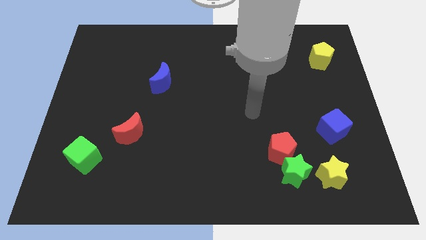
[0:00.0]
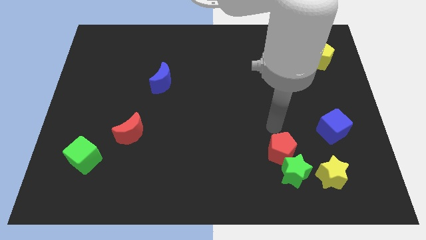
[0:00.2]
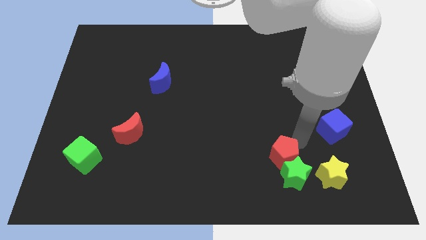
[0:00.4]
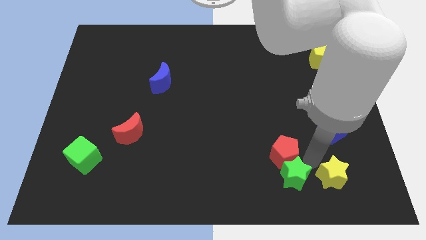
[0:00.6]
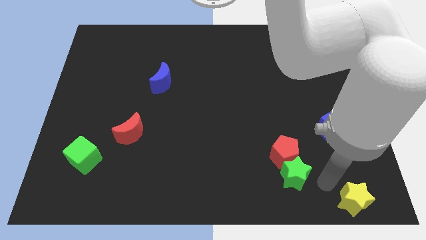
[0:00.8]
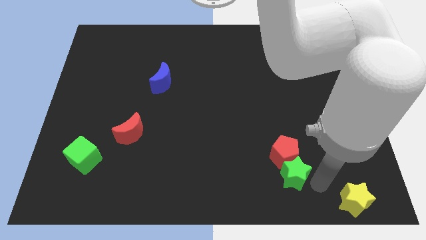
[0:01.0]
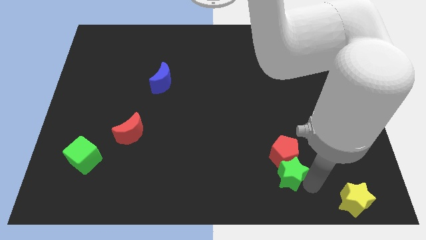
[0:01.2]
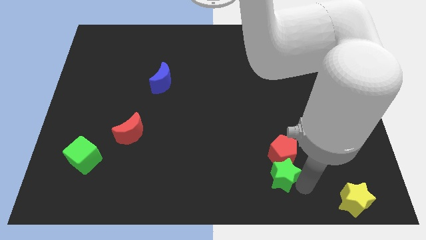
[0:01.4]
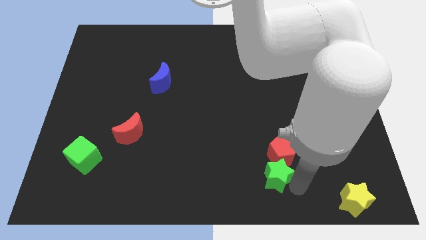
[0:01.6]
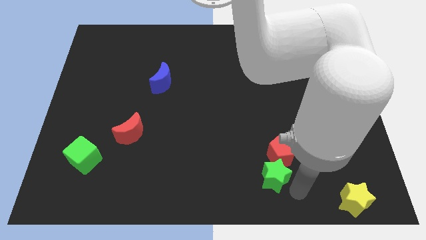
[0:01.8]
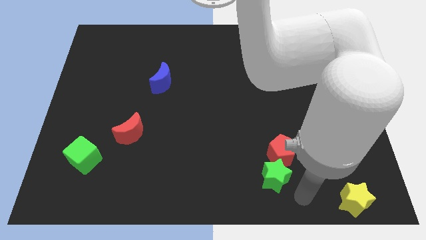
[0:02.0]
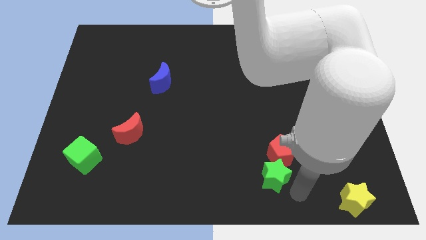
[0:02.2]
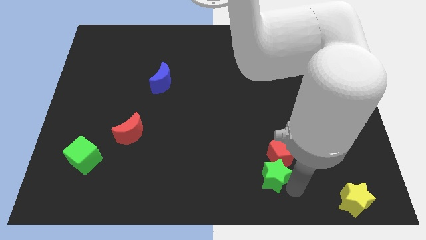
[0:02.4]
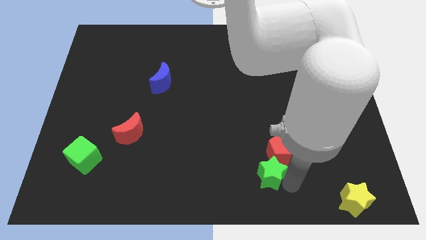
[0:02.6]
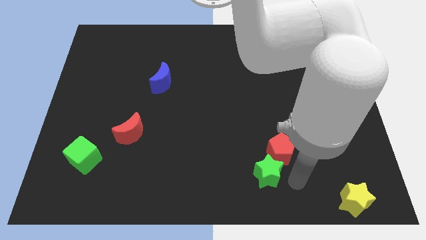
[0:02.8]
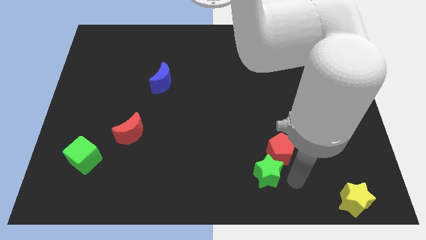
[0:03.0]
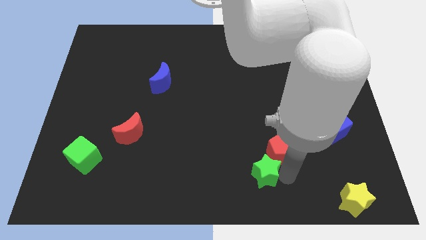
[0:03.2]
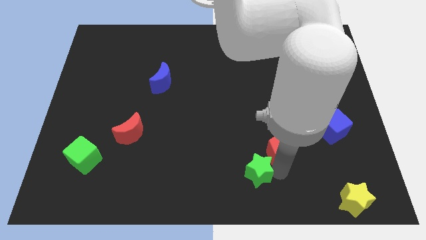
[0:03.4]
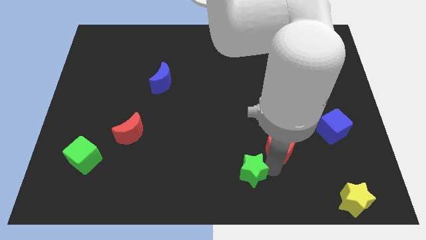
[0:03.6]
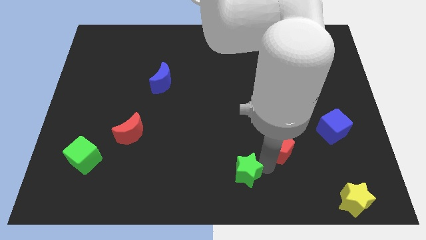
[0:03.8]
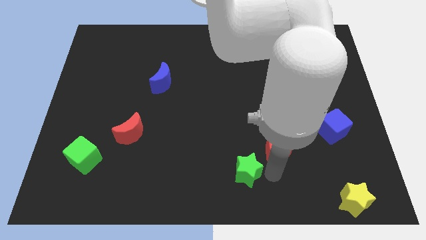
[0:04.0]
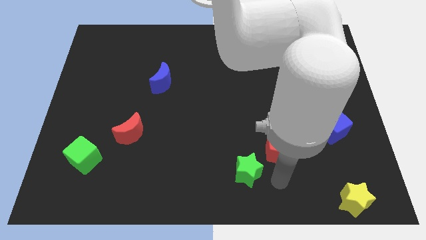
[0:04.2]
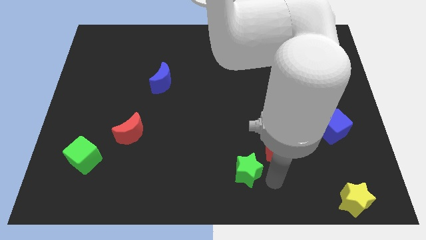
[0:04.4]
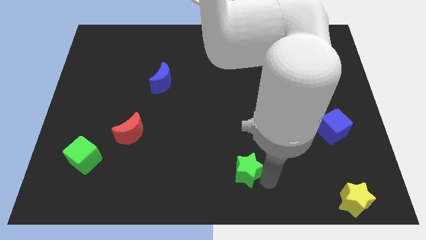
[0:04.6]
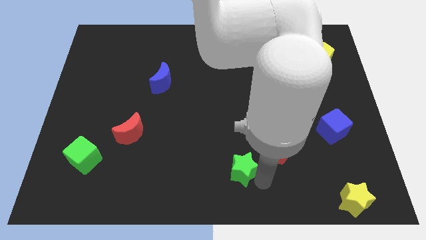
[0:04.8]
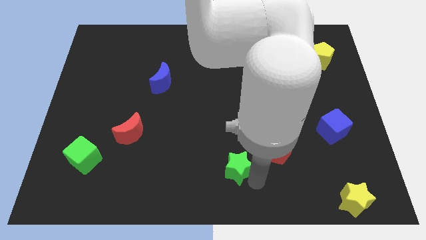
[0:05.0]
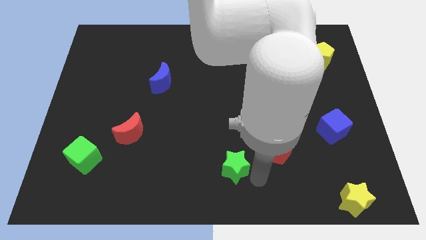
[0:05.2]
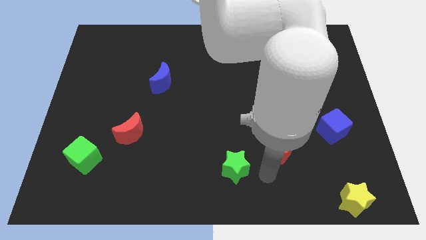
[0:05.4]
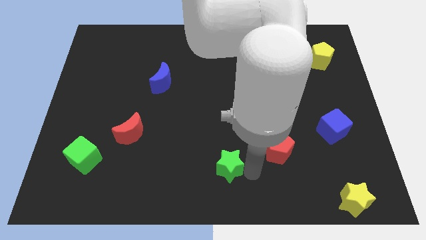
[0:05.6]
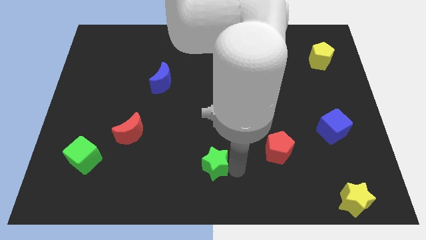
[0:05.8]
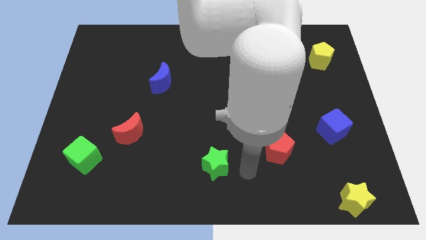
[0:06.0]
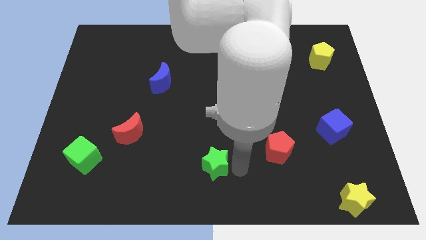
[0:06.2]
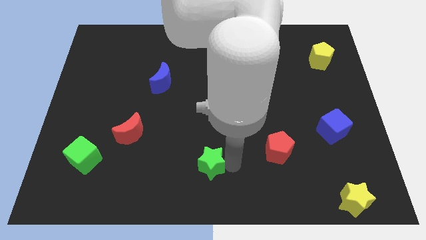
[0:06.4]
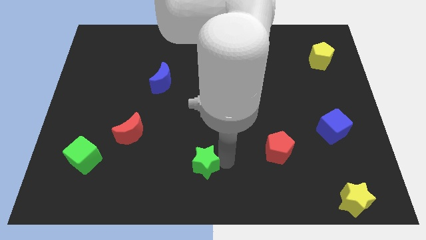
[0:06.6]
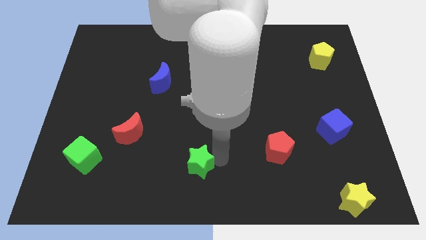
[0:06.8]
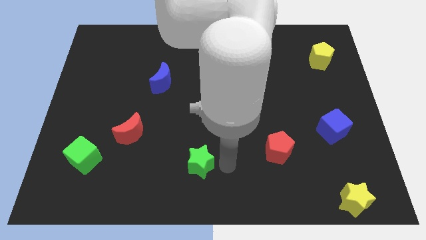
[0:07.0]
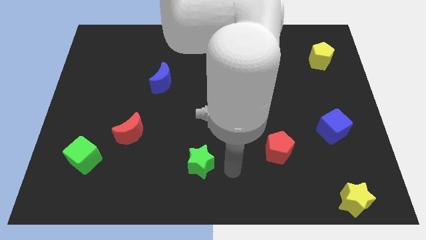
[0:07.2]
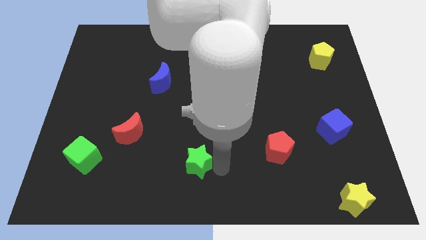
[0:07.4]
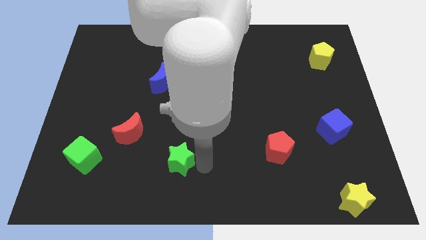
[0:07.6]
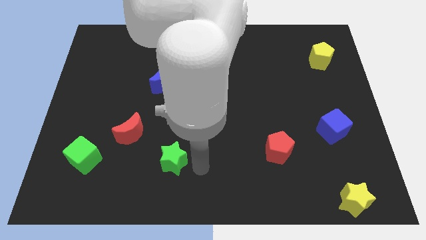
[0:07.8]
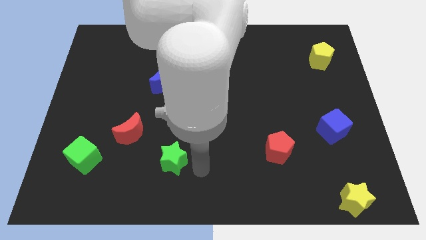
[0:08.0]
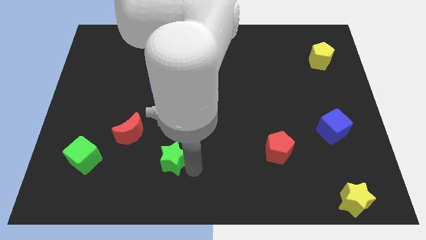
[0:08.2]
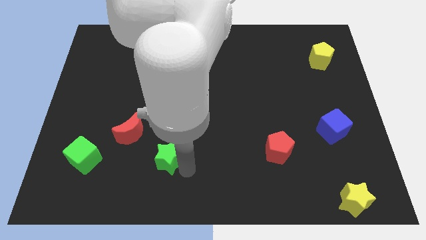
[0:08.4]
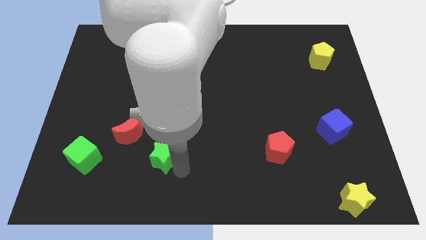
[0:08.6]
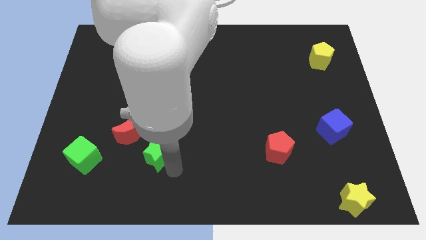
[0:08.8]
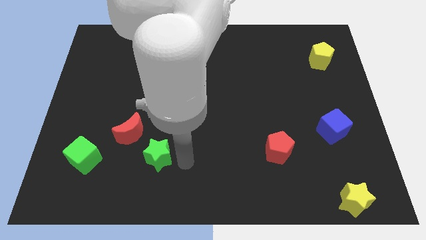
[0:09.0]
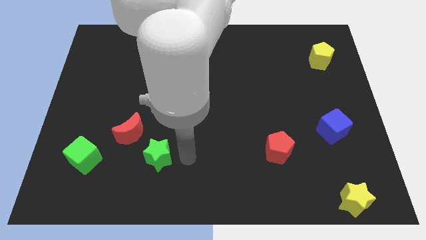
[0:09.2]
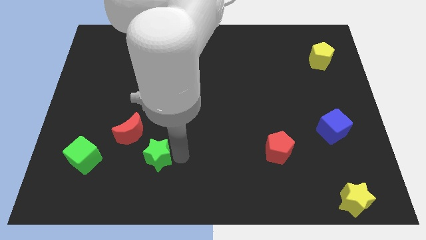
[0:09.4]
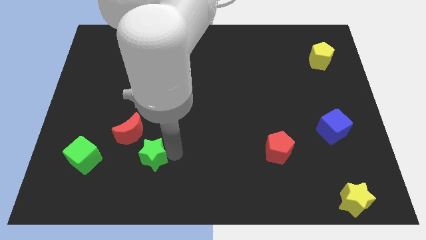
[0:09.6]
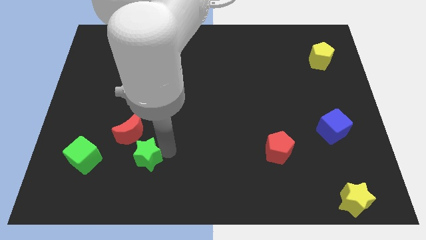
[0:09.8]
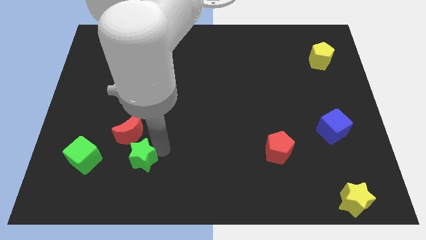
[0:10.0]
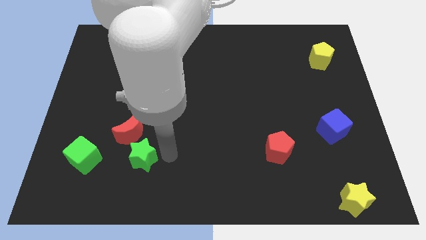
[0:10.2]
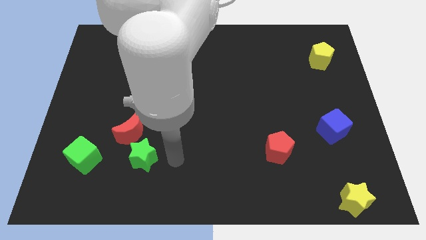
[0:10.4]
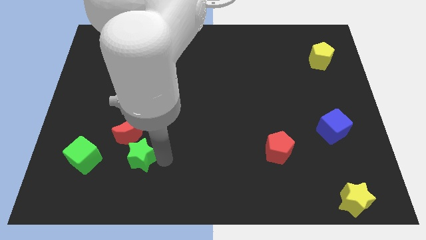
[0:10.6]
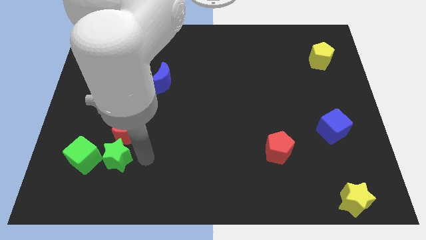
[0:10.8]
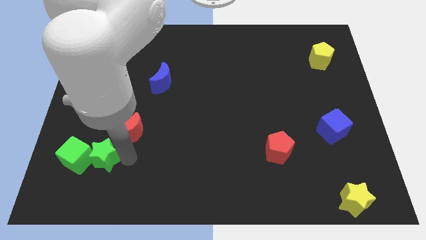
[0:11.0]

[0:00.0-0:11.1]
put the green star towards the green cube

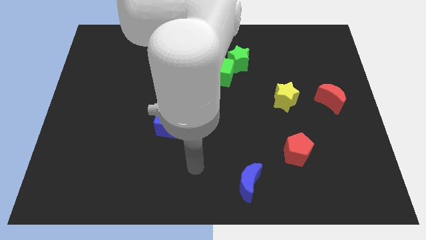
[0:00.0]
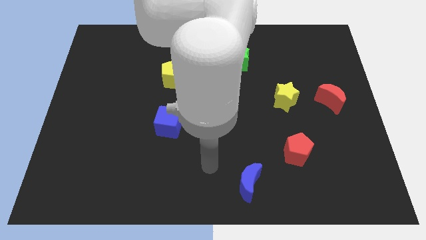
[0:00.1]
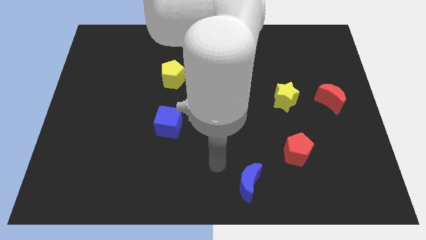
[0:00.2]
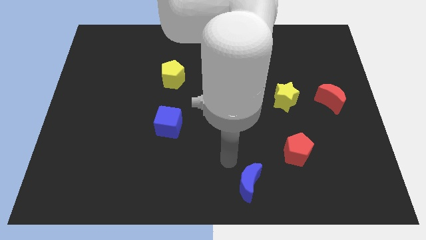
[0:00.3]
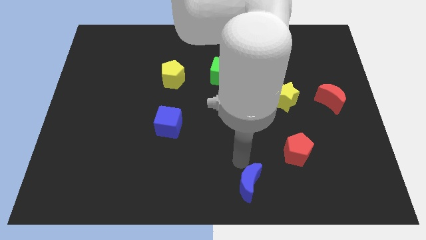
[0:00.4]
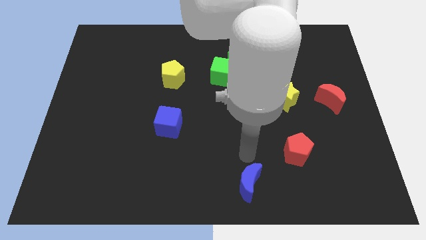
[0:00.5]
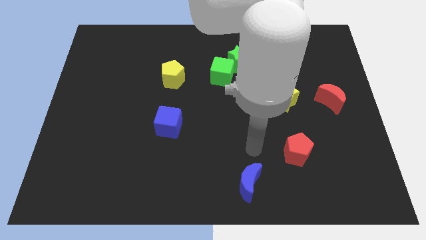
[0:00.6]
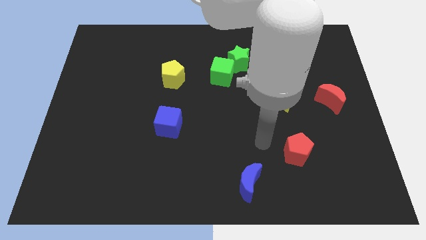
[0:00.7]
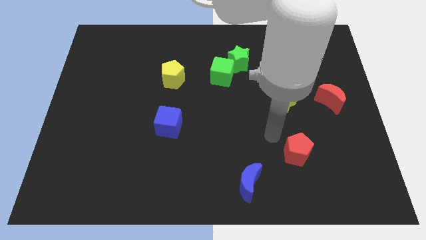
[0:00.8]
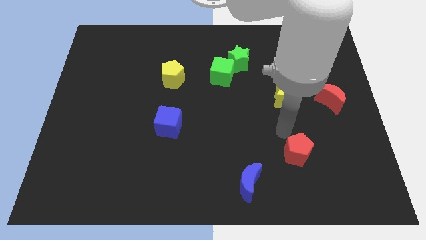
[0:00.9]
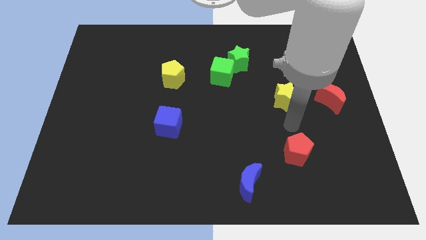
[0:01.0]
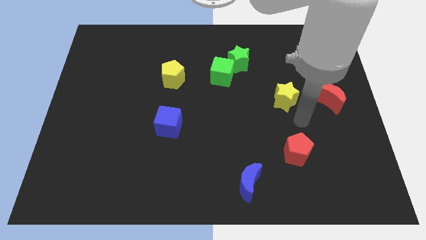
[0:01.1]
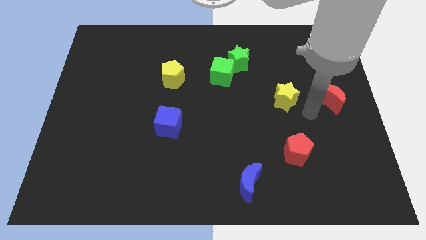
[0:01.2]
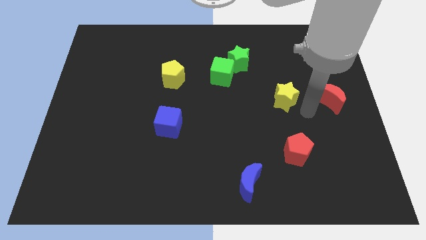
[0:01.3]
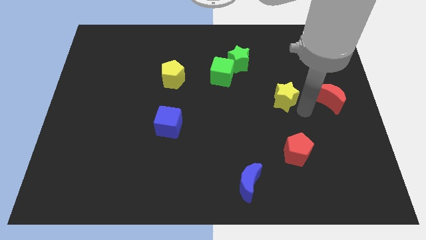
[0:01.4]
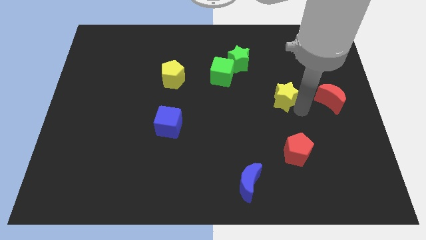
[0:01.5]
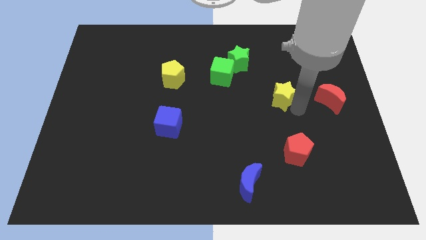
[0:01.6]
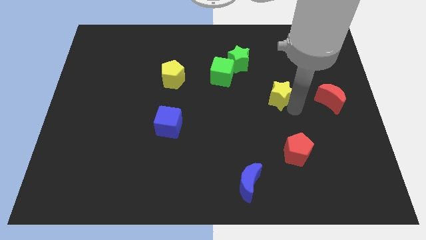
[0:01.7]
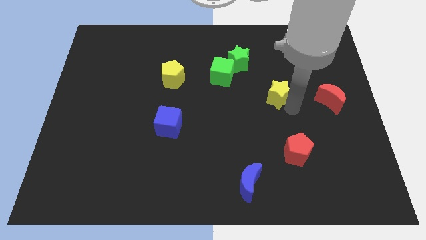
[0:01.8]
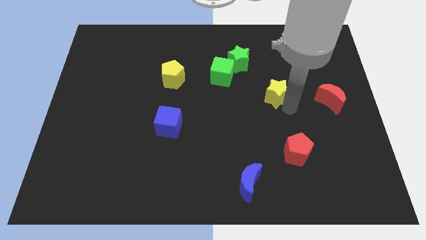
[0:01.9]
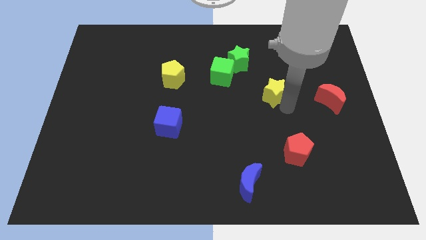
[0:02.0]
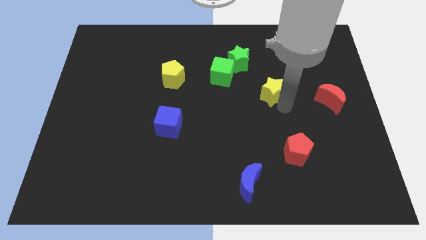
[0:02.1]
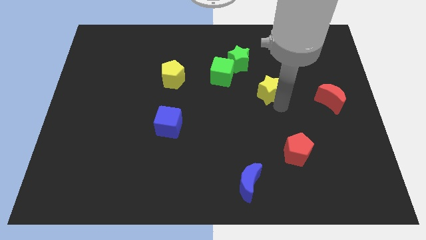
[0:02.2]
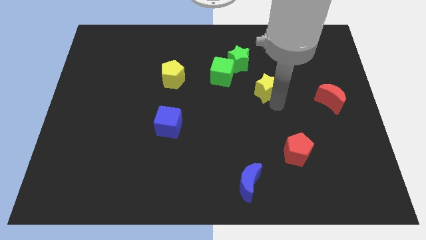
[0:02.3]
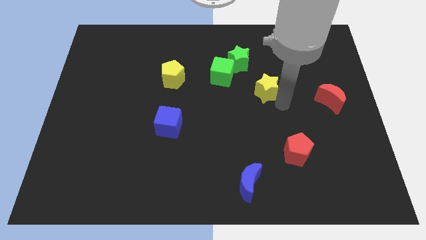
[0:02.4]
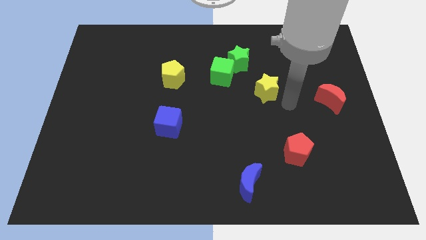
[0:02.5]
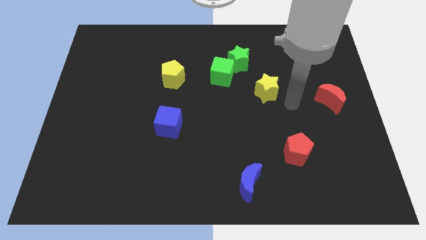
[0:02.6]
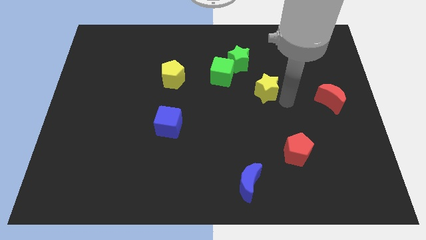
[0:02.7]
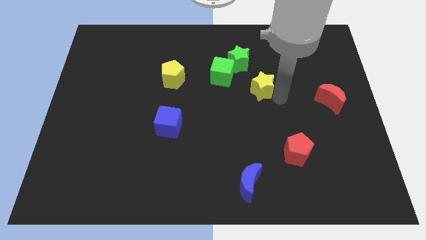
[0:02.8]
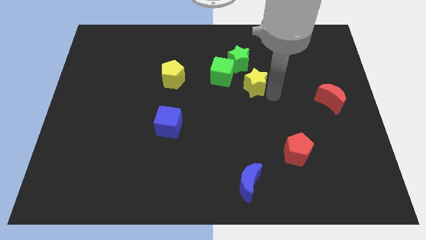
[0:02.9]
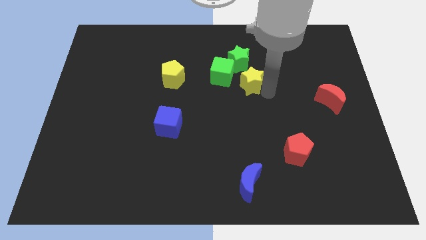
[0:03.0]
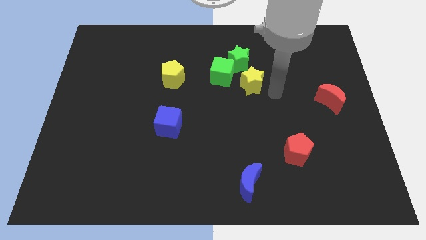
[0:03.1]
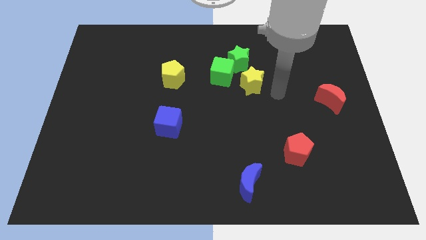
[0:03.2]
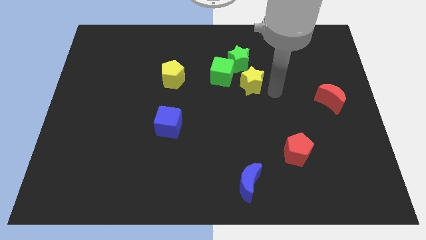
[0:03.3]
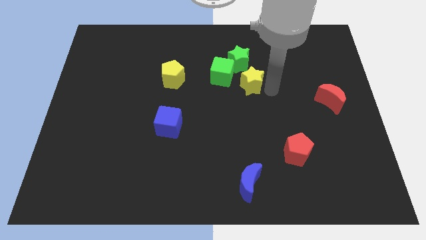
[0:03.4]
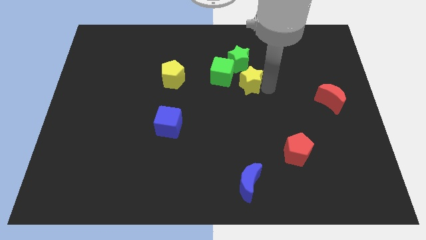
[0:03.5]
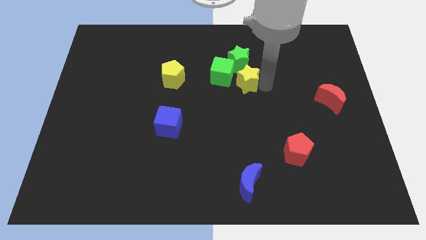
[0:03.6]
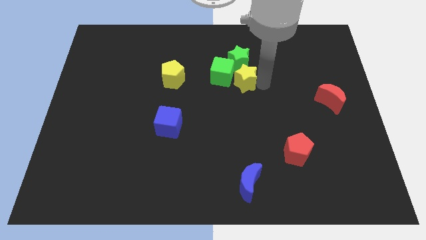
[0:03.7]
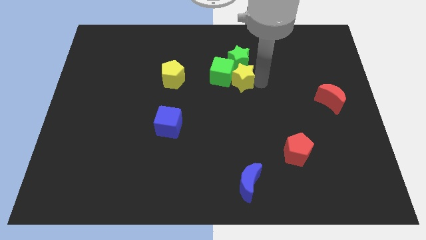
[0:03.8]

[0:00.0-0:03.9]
slide the yellow star next to the green cube
